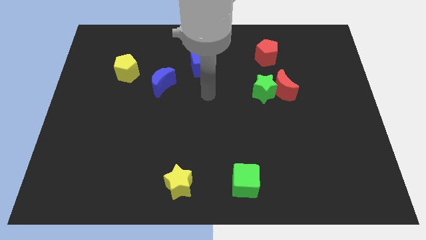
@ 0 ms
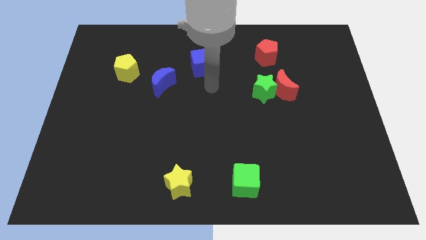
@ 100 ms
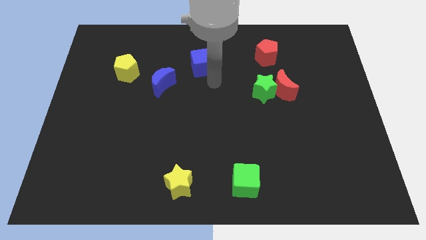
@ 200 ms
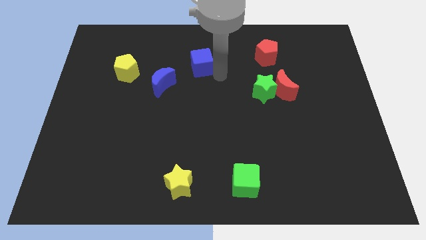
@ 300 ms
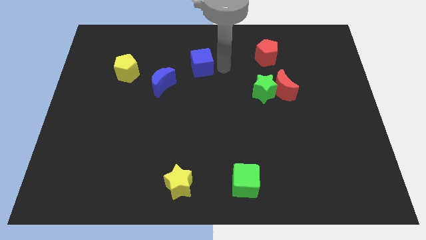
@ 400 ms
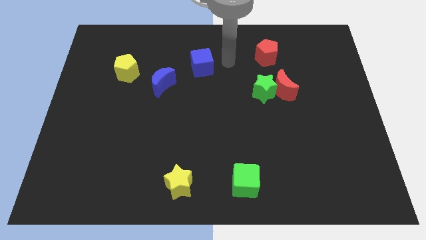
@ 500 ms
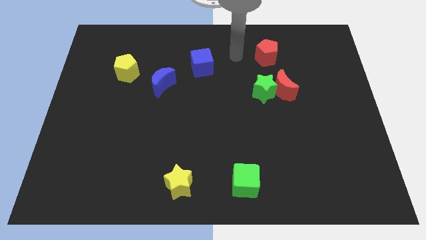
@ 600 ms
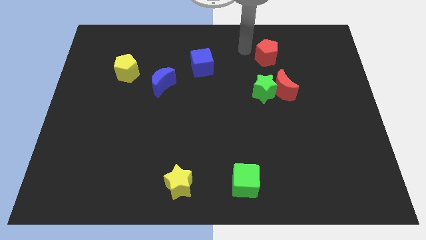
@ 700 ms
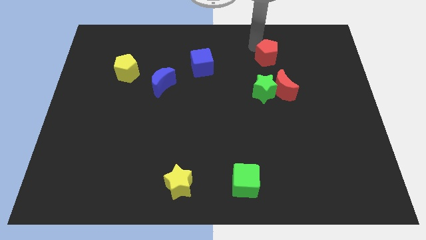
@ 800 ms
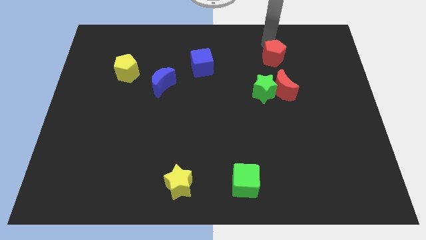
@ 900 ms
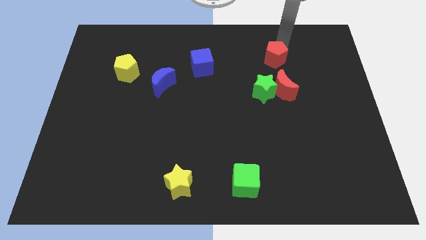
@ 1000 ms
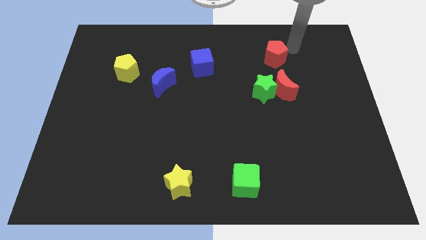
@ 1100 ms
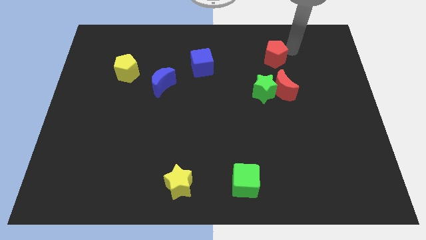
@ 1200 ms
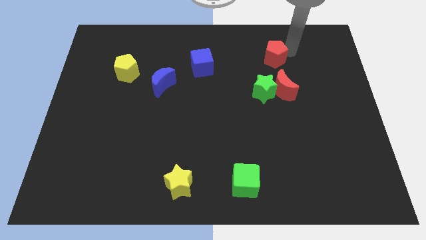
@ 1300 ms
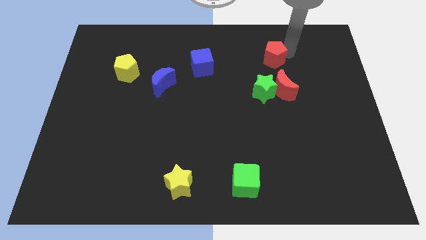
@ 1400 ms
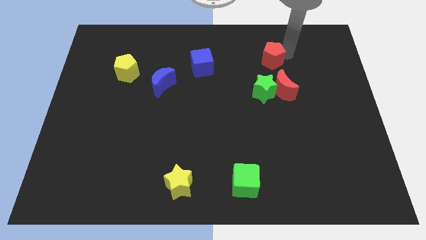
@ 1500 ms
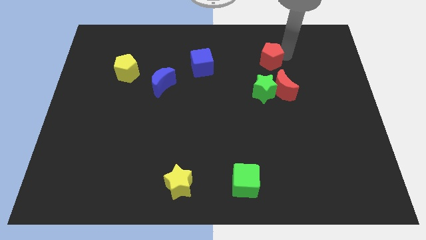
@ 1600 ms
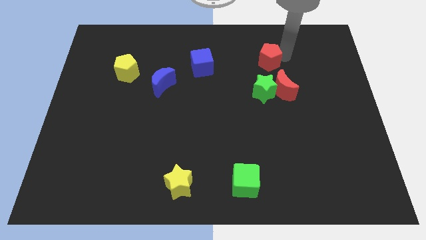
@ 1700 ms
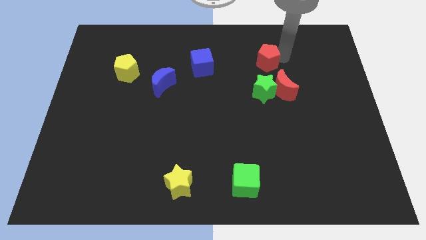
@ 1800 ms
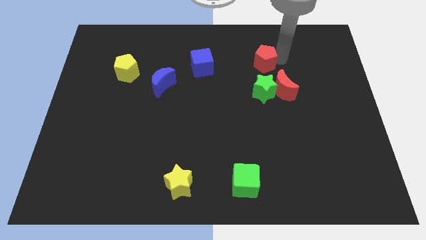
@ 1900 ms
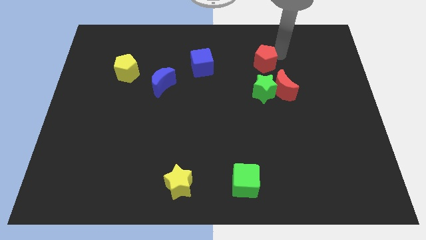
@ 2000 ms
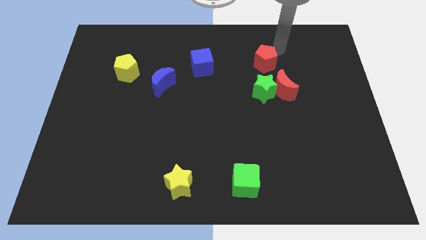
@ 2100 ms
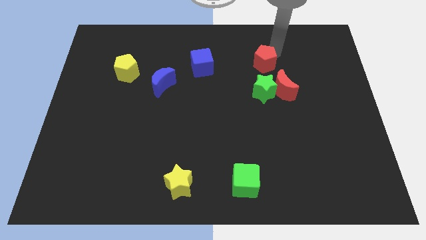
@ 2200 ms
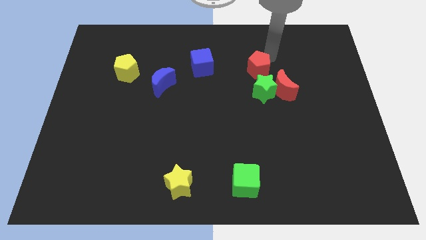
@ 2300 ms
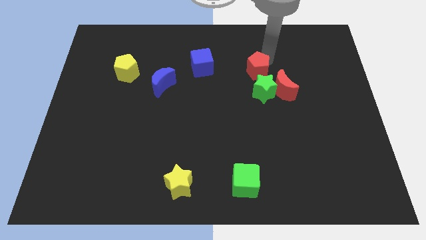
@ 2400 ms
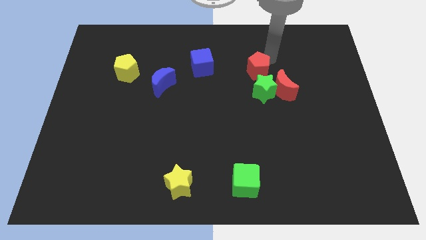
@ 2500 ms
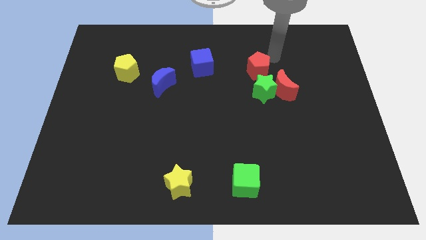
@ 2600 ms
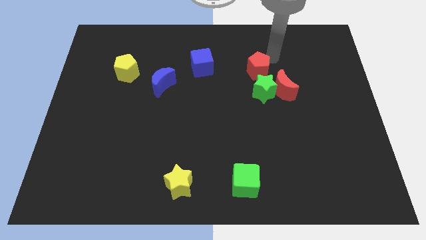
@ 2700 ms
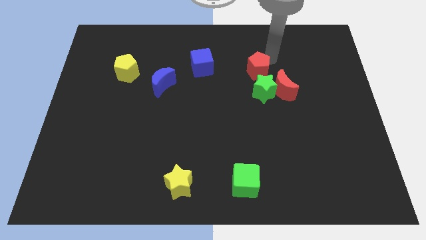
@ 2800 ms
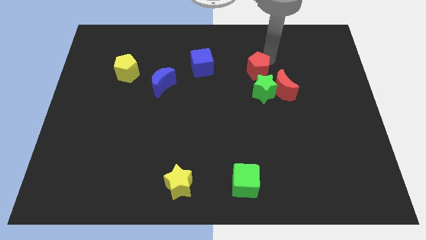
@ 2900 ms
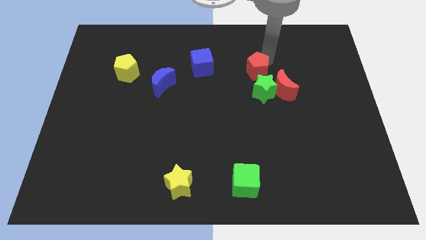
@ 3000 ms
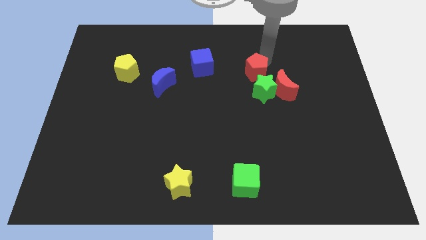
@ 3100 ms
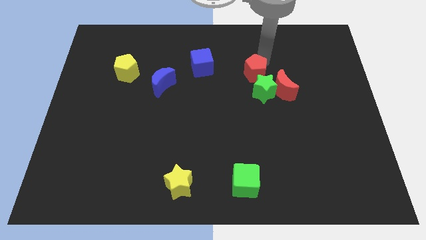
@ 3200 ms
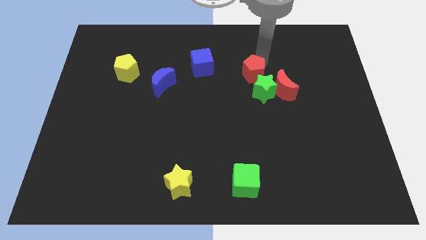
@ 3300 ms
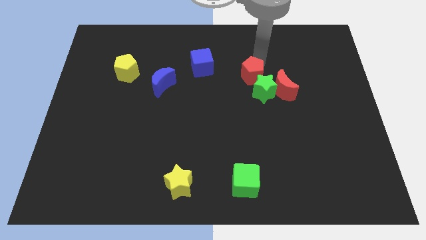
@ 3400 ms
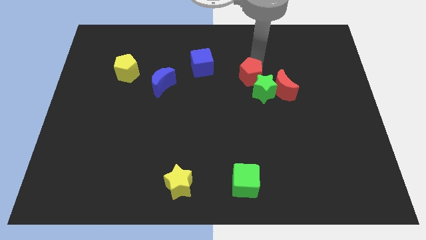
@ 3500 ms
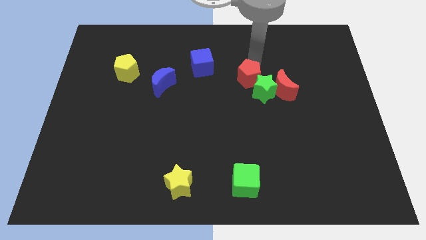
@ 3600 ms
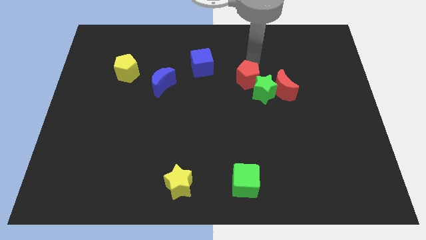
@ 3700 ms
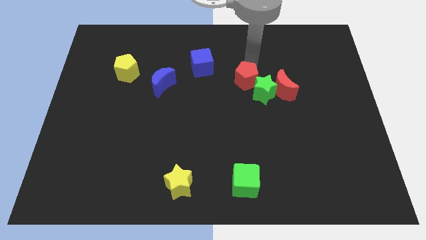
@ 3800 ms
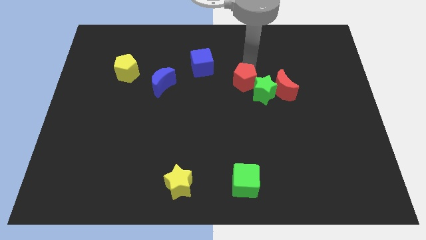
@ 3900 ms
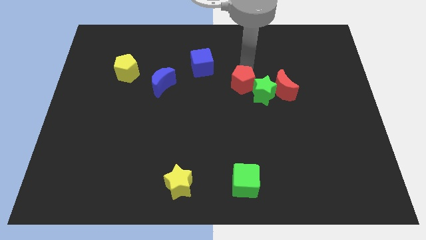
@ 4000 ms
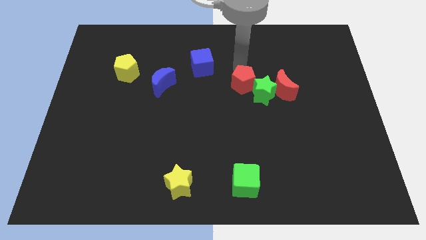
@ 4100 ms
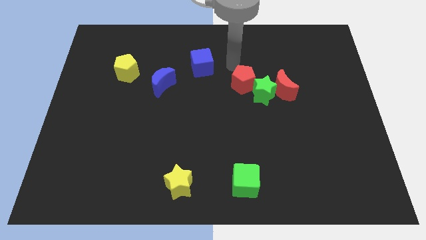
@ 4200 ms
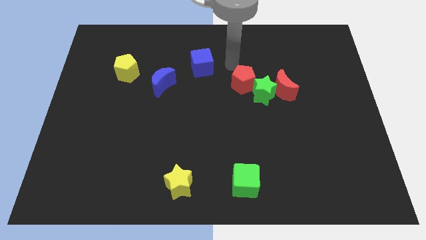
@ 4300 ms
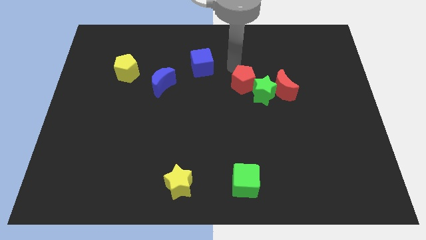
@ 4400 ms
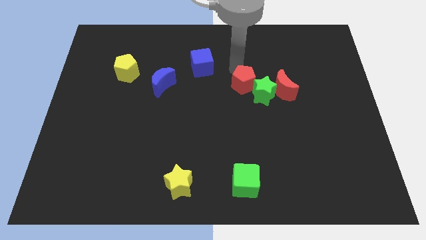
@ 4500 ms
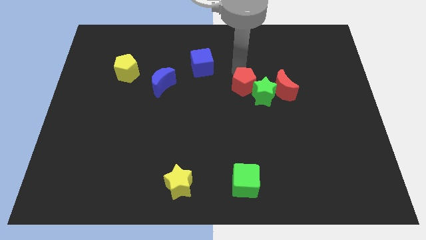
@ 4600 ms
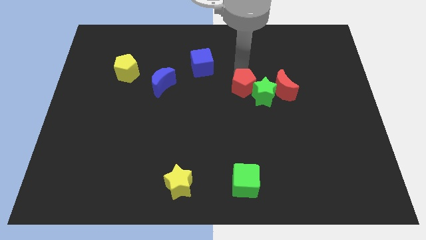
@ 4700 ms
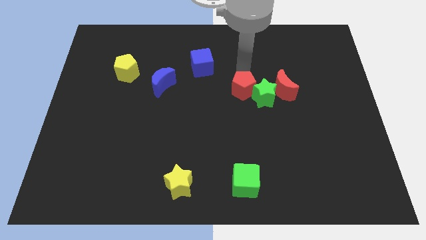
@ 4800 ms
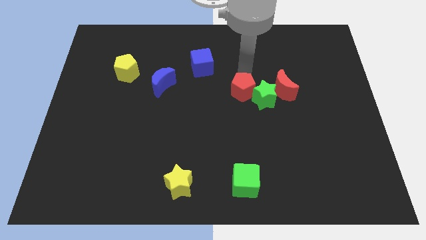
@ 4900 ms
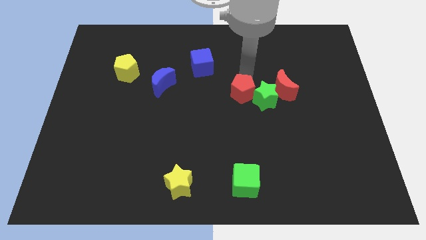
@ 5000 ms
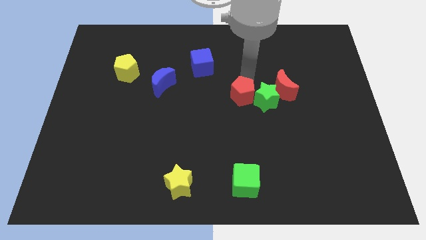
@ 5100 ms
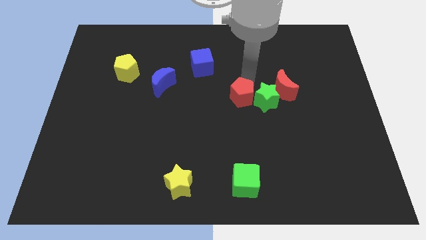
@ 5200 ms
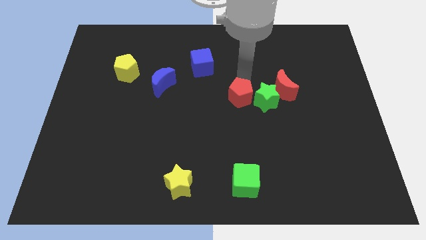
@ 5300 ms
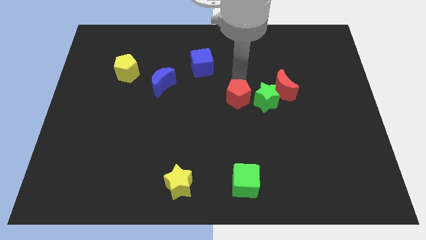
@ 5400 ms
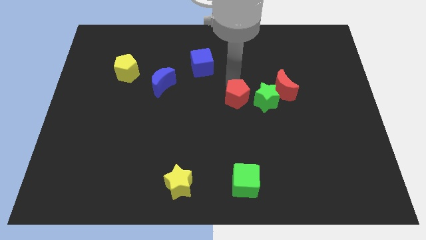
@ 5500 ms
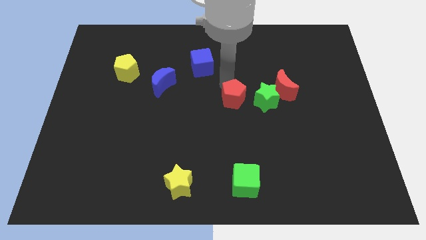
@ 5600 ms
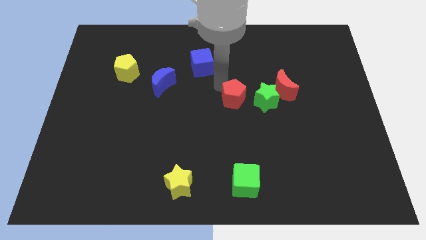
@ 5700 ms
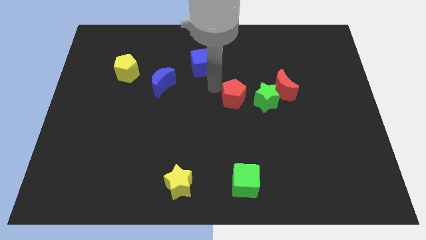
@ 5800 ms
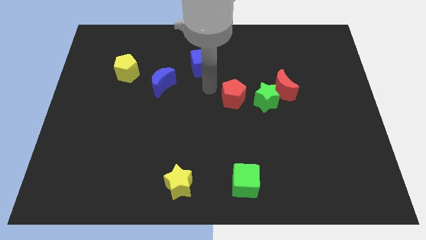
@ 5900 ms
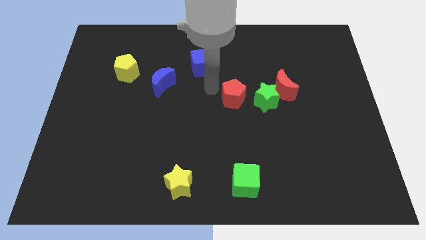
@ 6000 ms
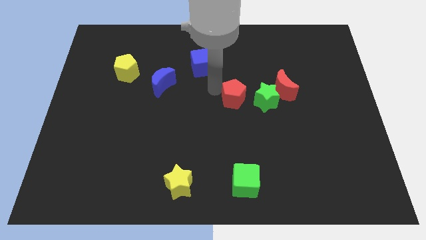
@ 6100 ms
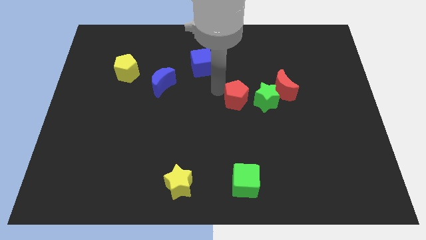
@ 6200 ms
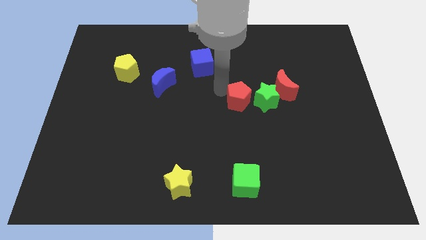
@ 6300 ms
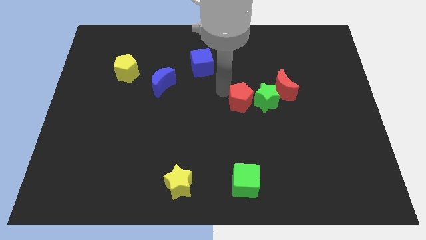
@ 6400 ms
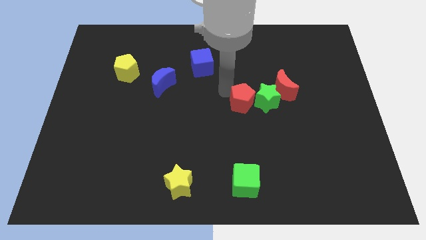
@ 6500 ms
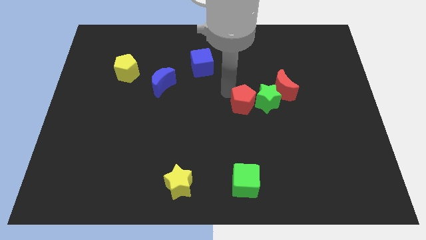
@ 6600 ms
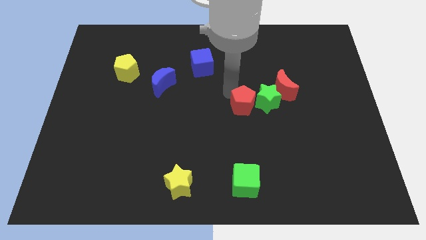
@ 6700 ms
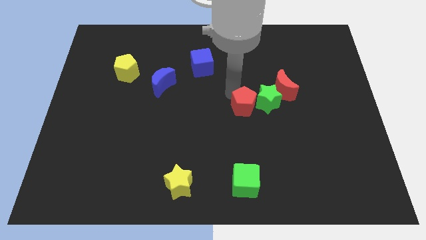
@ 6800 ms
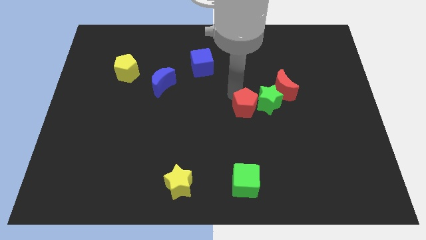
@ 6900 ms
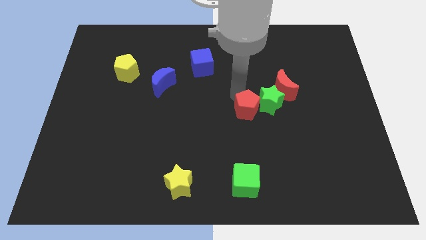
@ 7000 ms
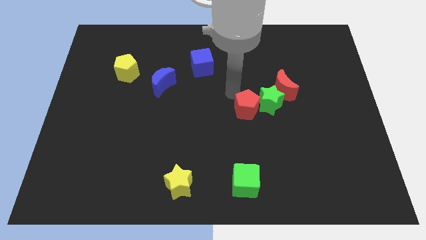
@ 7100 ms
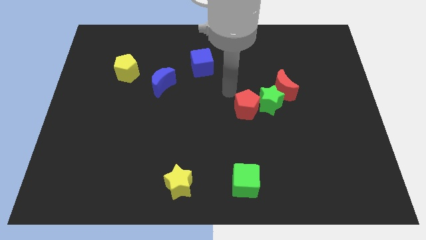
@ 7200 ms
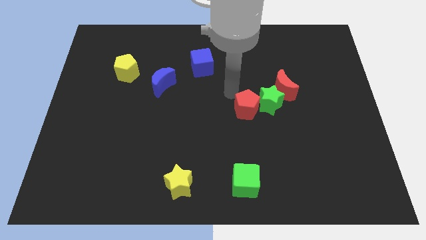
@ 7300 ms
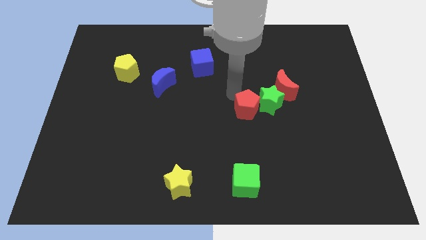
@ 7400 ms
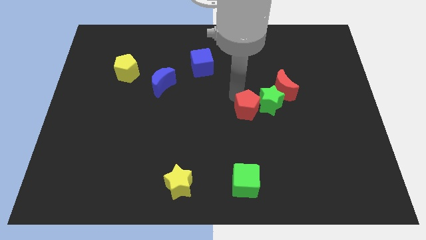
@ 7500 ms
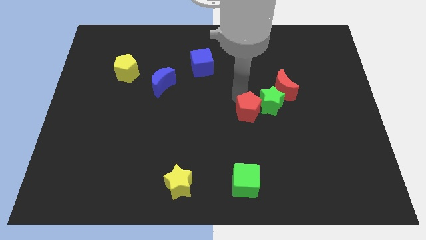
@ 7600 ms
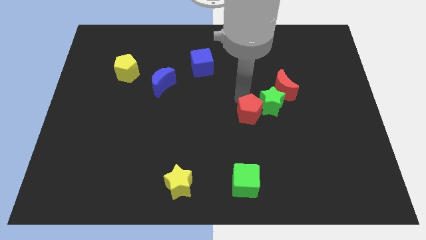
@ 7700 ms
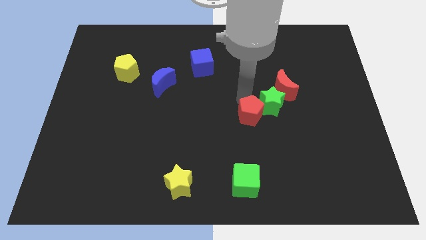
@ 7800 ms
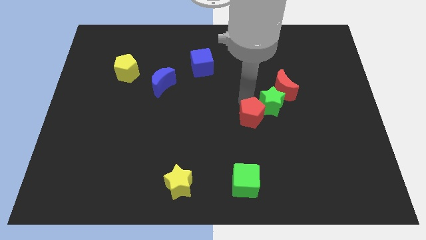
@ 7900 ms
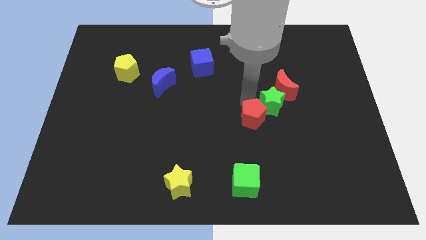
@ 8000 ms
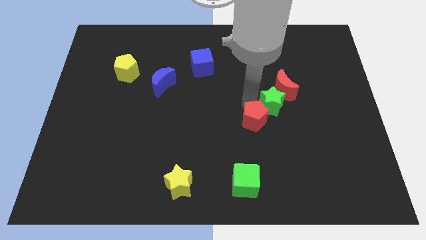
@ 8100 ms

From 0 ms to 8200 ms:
slide the red pentagon down
